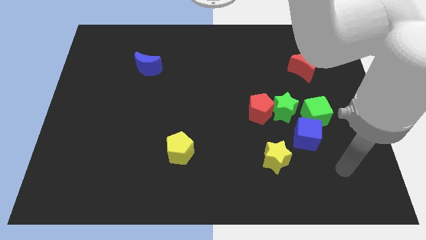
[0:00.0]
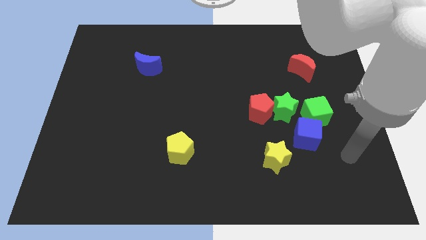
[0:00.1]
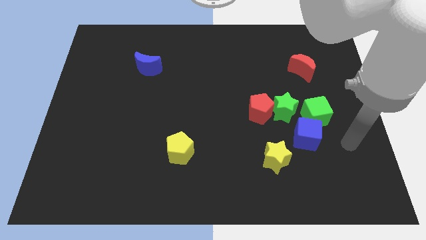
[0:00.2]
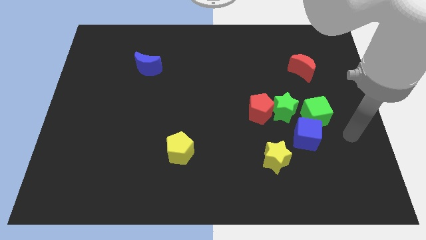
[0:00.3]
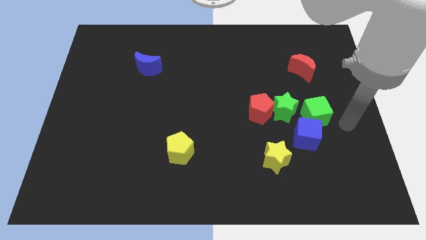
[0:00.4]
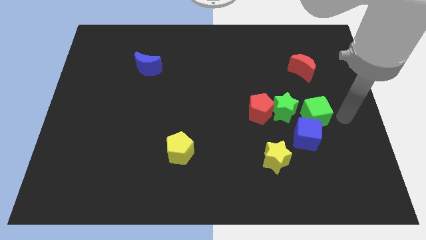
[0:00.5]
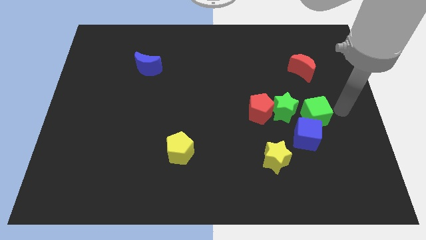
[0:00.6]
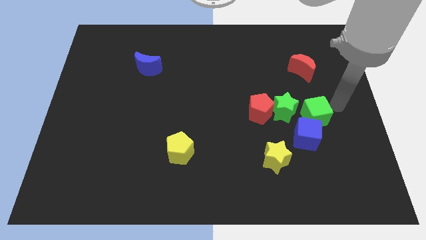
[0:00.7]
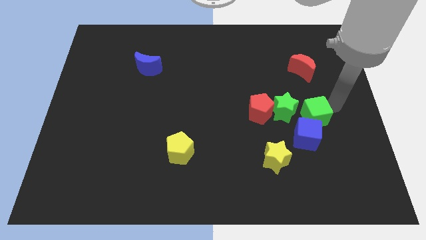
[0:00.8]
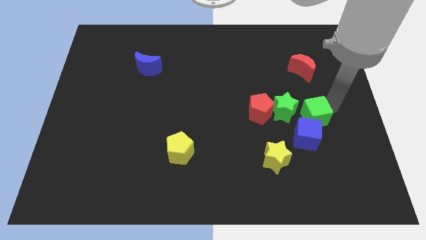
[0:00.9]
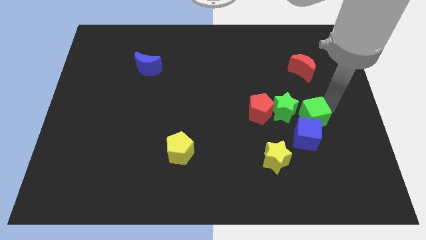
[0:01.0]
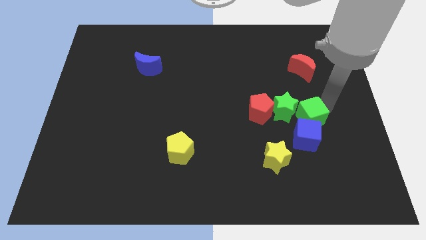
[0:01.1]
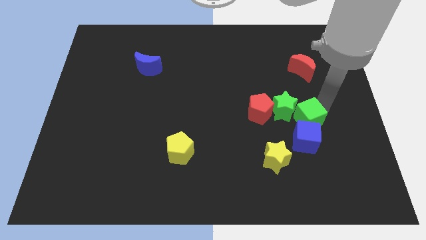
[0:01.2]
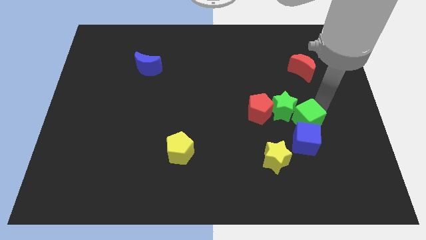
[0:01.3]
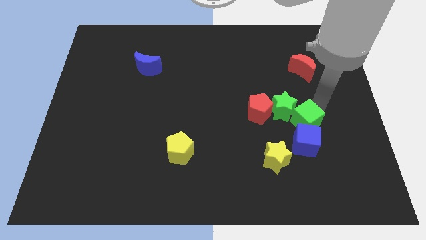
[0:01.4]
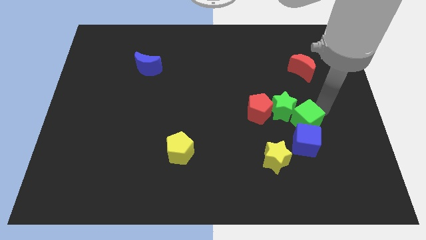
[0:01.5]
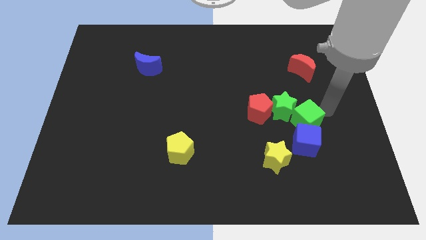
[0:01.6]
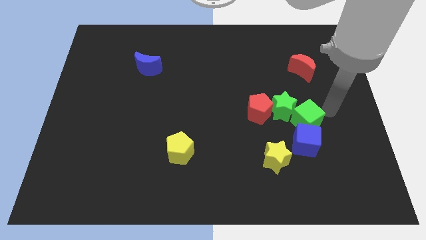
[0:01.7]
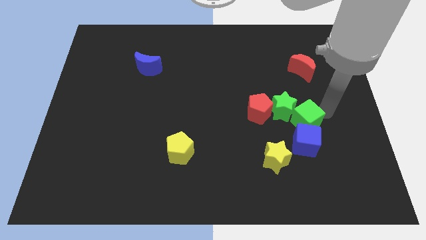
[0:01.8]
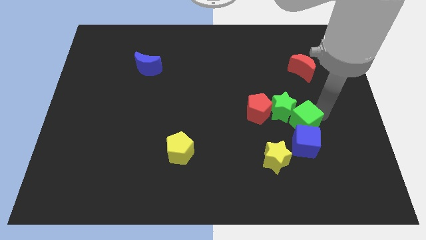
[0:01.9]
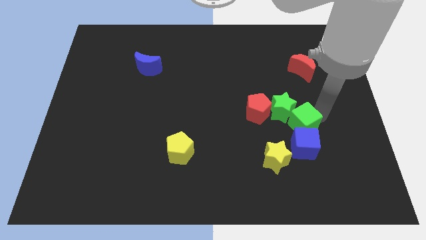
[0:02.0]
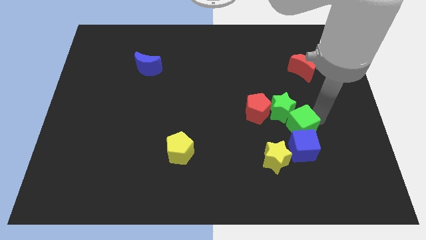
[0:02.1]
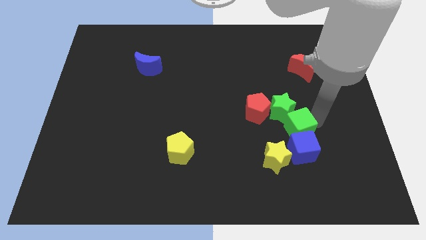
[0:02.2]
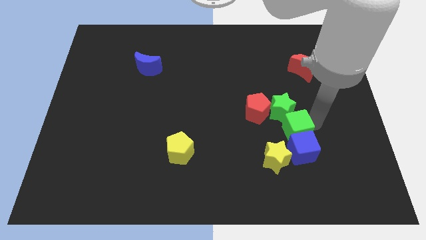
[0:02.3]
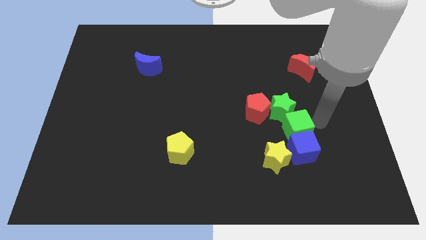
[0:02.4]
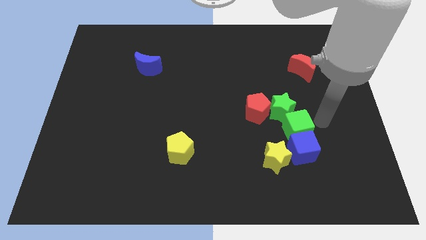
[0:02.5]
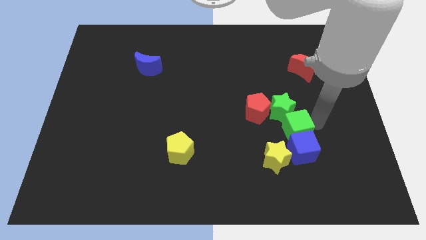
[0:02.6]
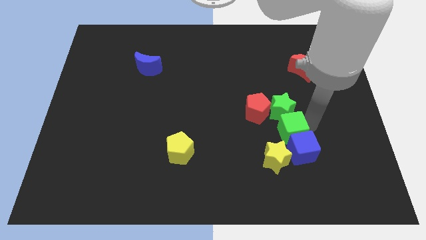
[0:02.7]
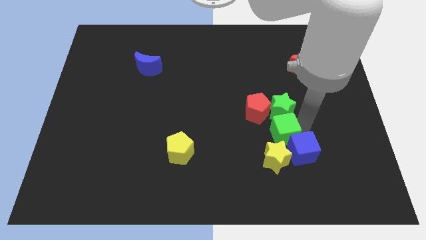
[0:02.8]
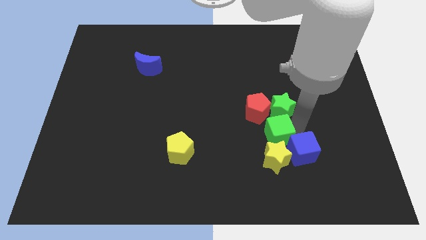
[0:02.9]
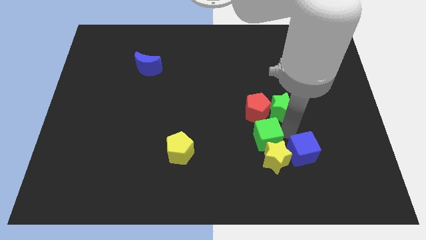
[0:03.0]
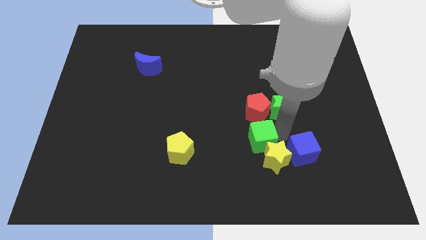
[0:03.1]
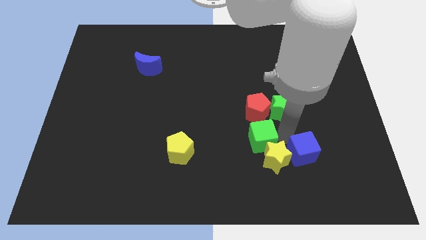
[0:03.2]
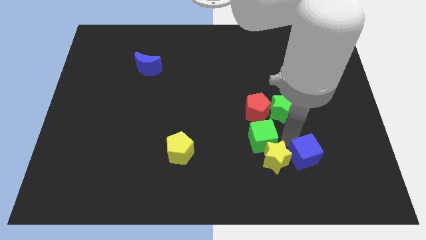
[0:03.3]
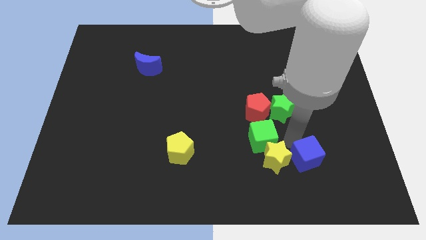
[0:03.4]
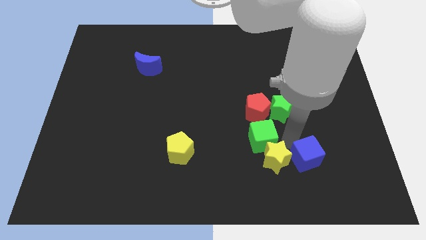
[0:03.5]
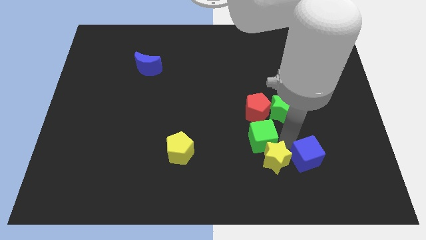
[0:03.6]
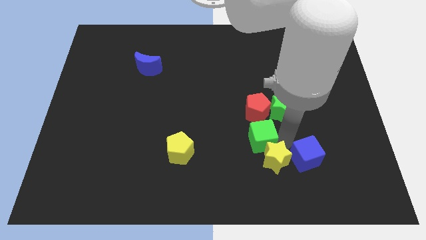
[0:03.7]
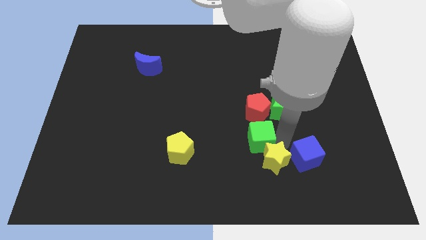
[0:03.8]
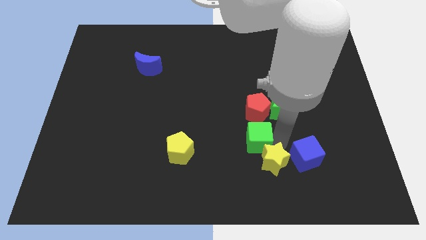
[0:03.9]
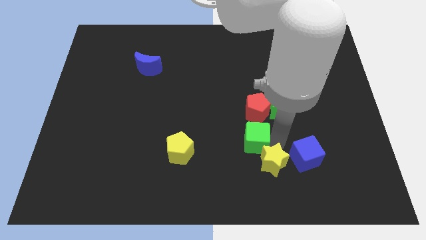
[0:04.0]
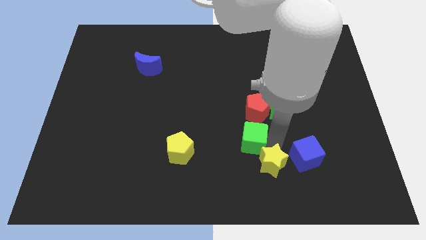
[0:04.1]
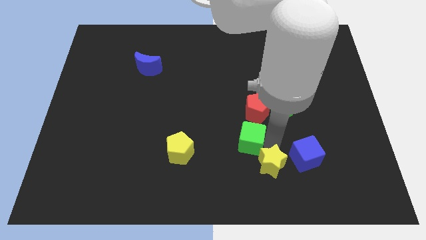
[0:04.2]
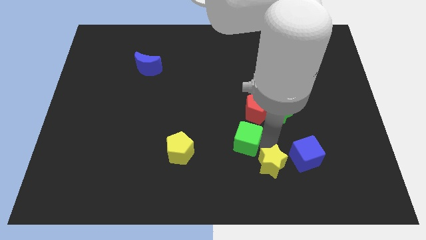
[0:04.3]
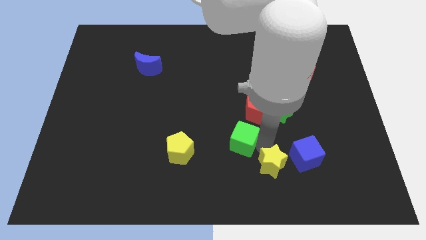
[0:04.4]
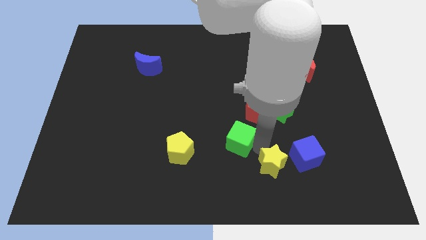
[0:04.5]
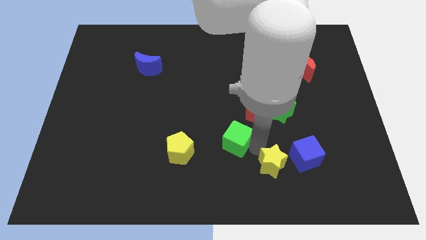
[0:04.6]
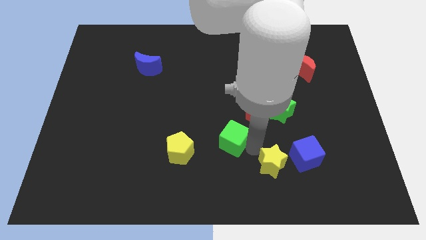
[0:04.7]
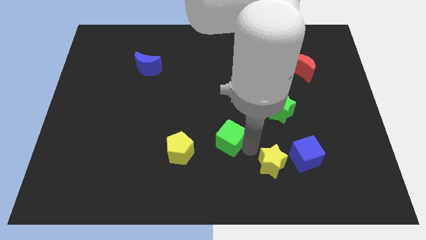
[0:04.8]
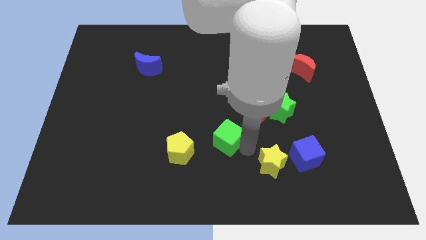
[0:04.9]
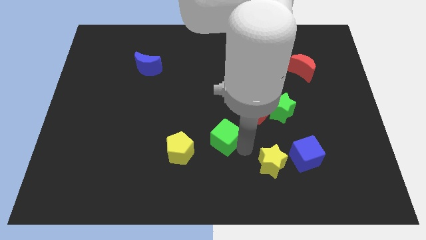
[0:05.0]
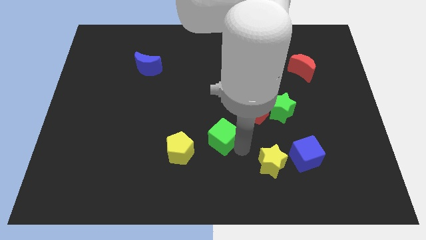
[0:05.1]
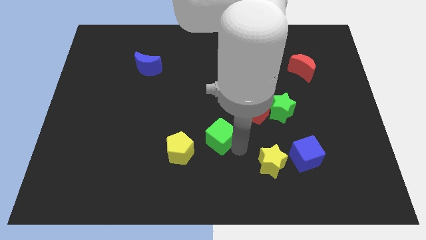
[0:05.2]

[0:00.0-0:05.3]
move the green cube left

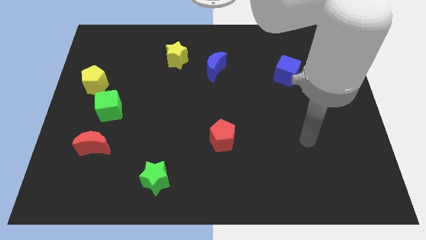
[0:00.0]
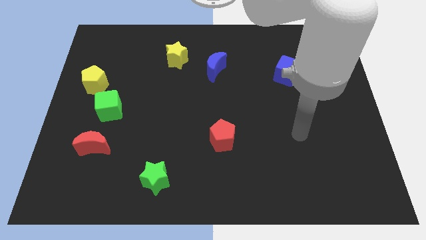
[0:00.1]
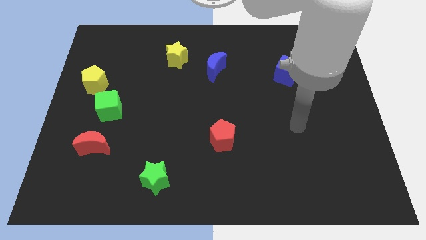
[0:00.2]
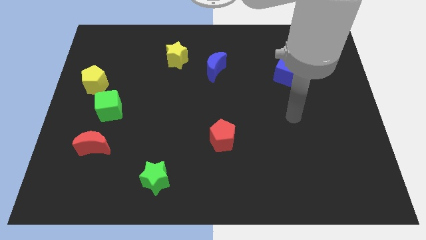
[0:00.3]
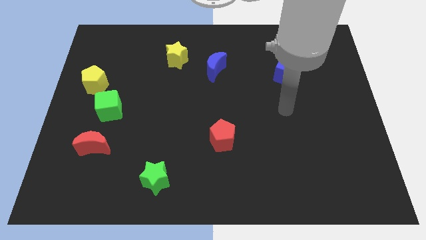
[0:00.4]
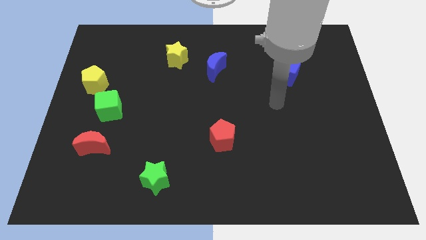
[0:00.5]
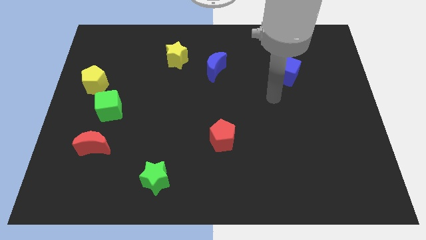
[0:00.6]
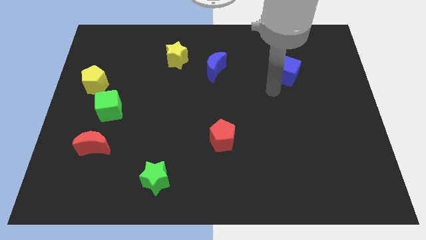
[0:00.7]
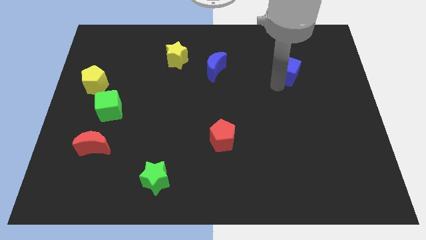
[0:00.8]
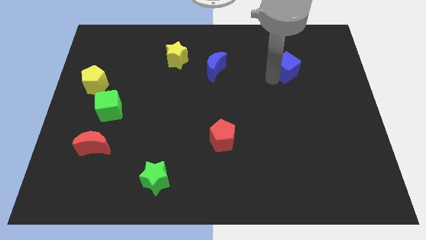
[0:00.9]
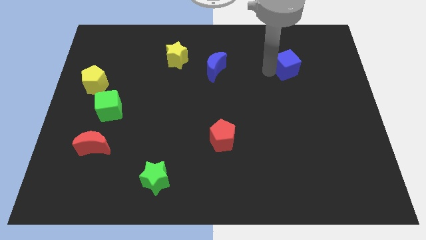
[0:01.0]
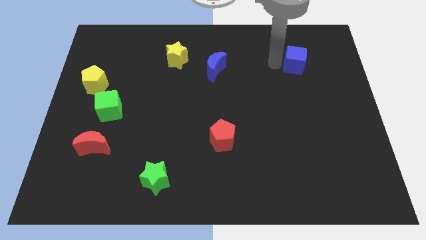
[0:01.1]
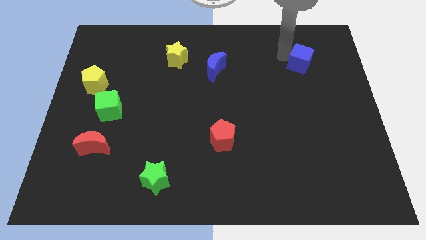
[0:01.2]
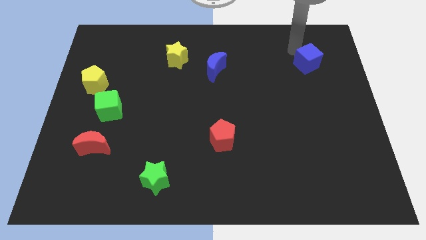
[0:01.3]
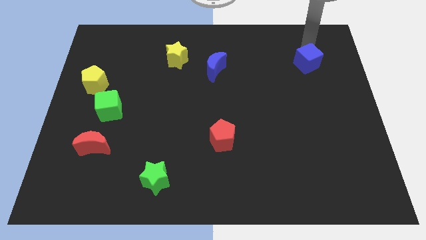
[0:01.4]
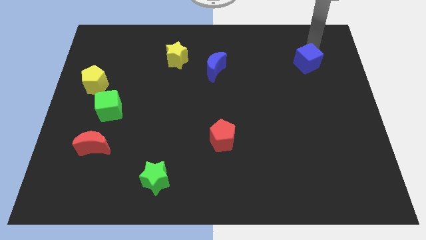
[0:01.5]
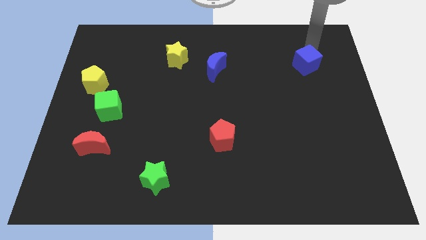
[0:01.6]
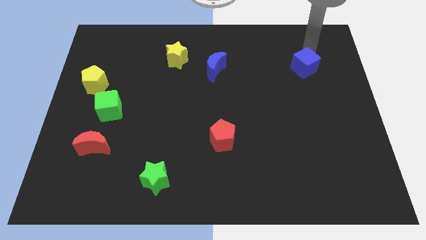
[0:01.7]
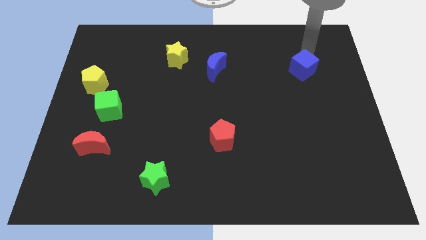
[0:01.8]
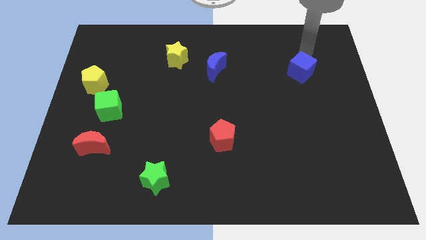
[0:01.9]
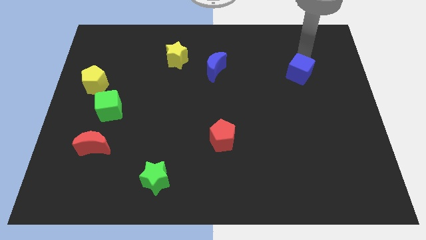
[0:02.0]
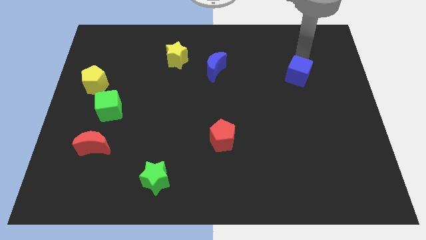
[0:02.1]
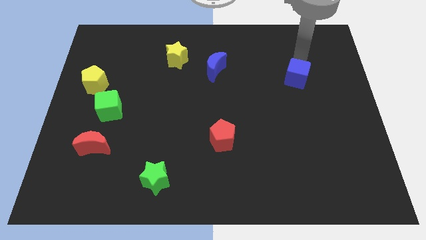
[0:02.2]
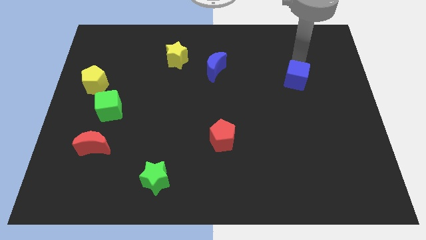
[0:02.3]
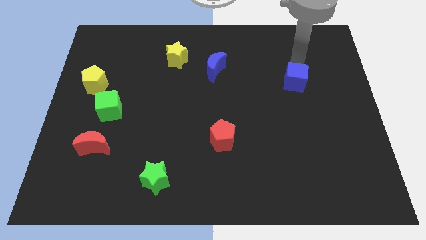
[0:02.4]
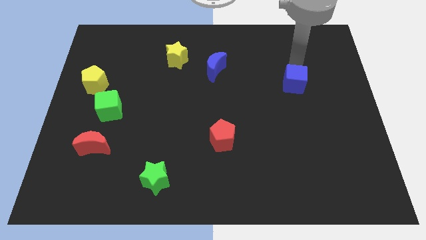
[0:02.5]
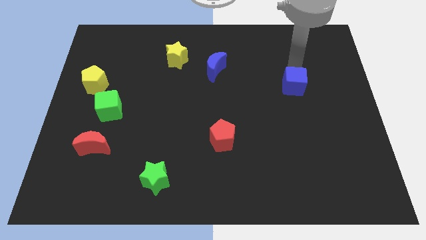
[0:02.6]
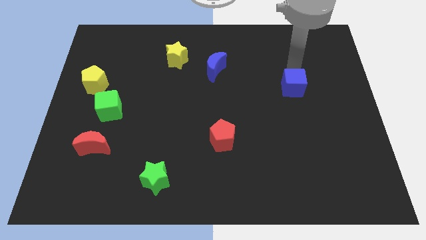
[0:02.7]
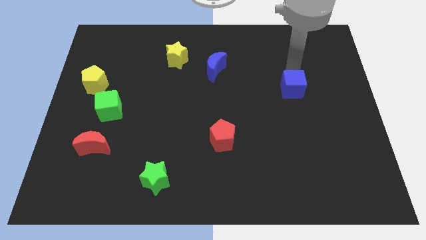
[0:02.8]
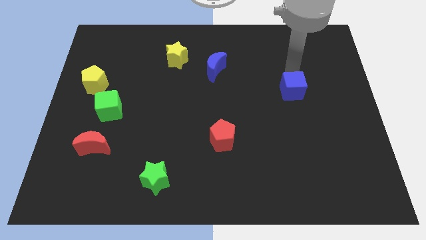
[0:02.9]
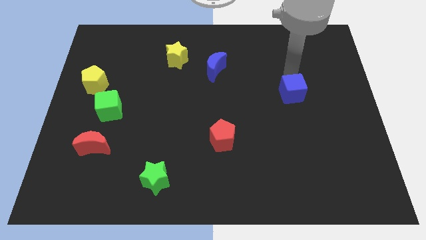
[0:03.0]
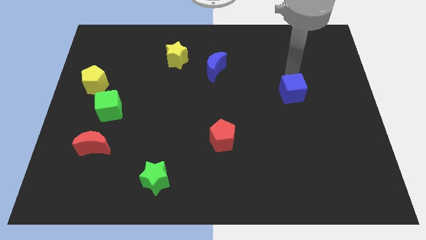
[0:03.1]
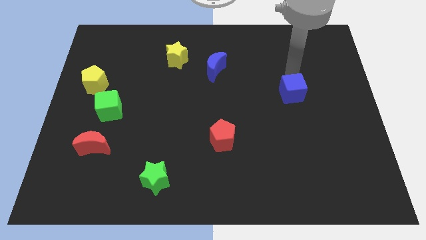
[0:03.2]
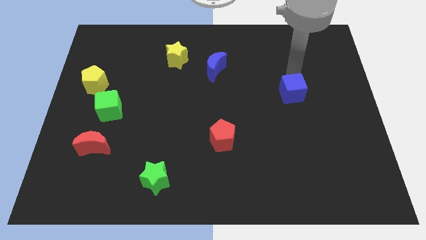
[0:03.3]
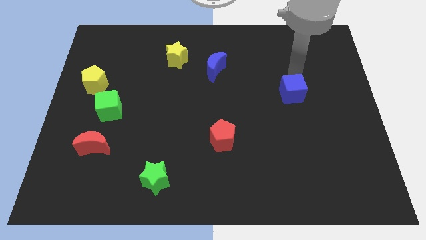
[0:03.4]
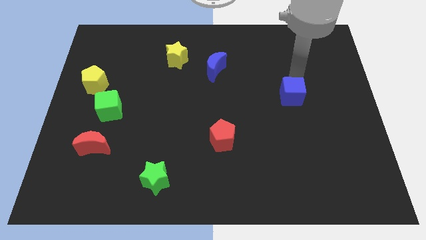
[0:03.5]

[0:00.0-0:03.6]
move the blue cube down a little bit
